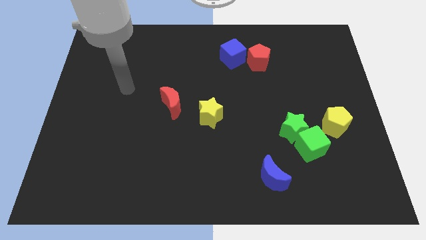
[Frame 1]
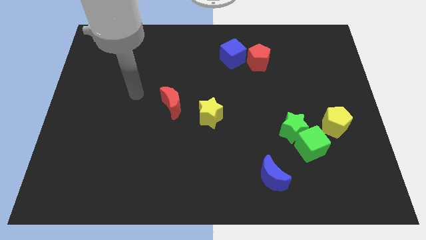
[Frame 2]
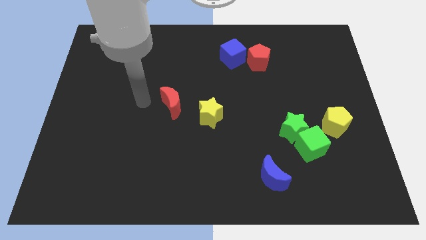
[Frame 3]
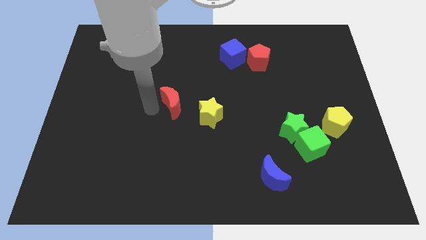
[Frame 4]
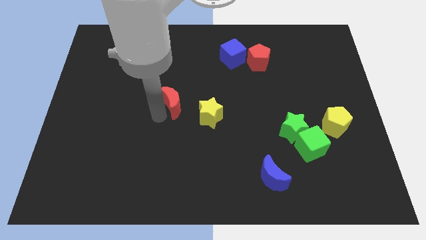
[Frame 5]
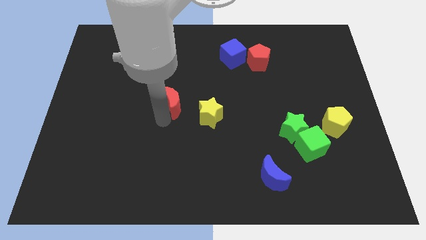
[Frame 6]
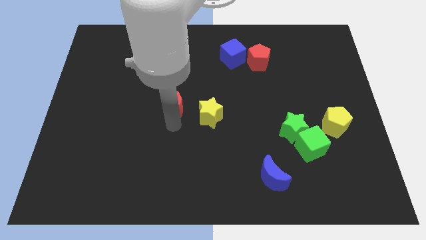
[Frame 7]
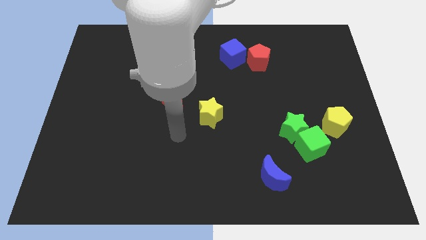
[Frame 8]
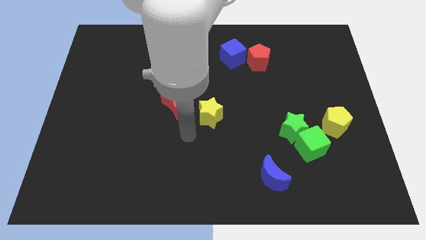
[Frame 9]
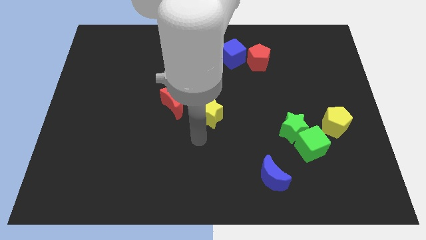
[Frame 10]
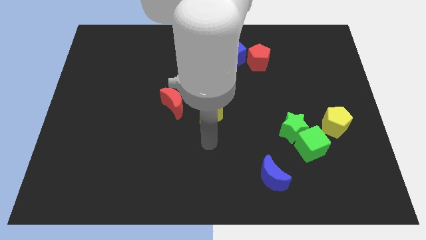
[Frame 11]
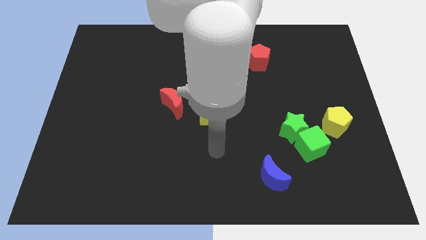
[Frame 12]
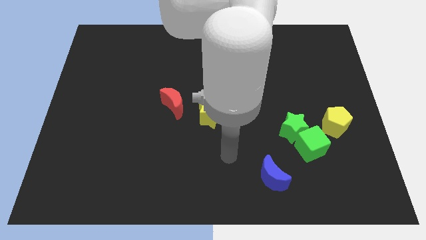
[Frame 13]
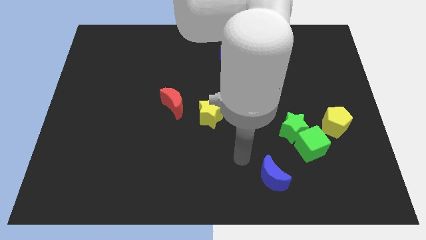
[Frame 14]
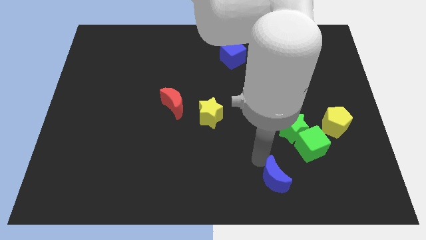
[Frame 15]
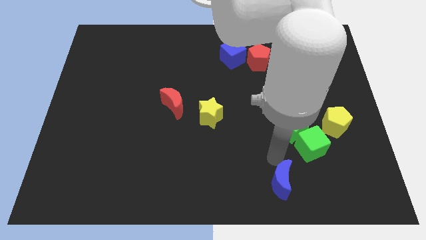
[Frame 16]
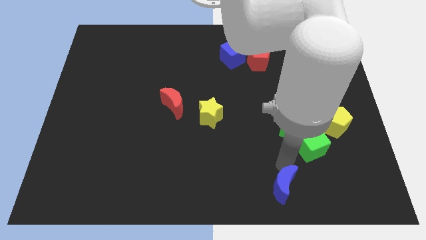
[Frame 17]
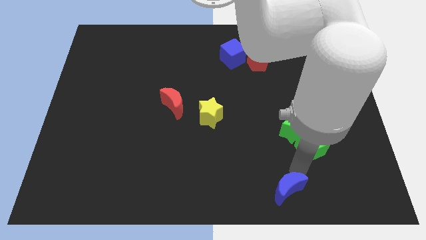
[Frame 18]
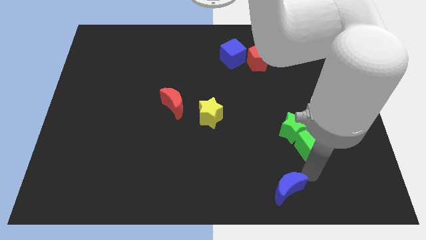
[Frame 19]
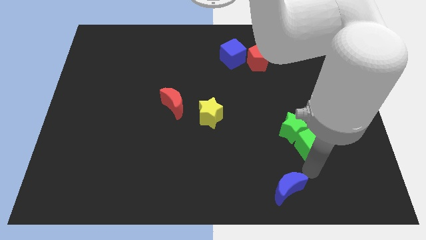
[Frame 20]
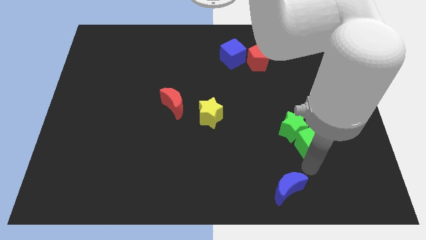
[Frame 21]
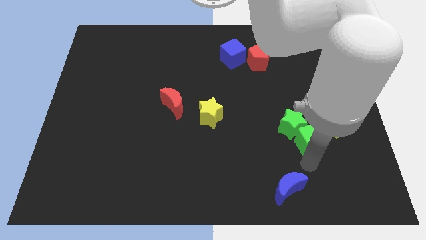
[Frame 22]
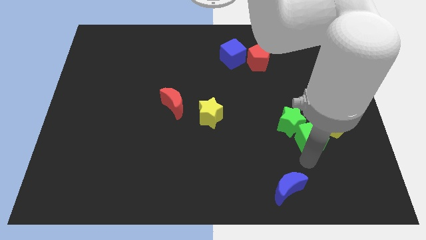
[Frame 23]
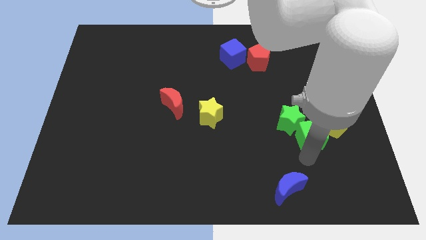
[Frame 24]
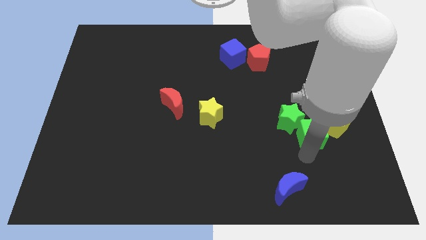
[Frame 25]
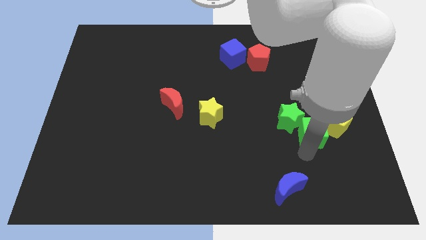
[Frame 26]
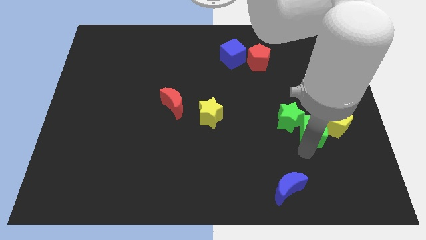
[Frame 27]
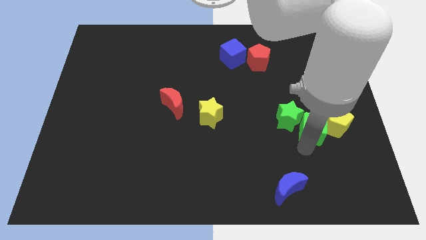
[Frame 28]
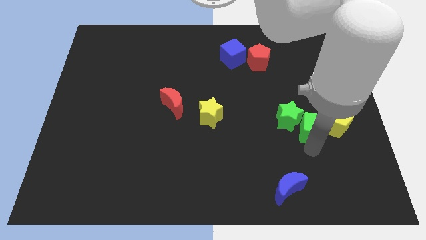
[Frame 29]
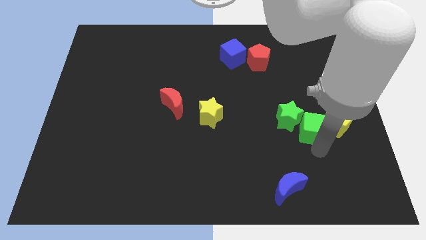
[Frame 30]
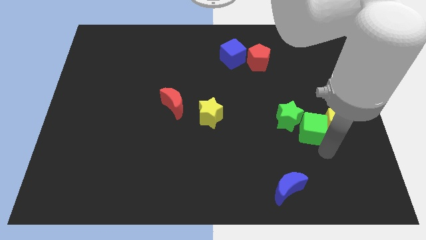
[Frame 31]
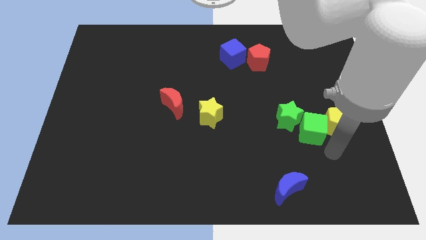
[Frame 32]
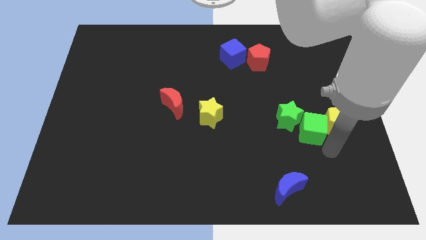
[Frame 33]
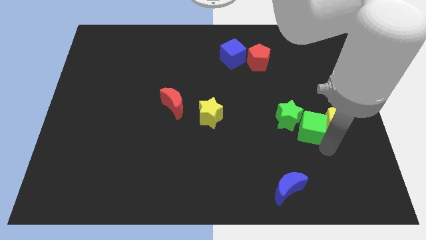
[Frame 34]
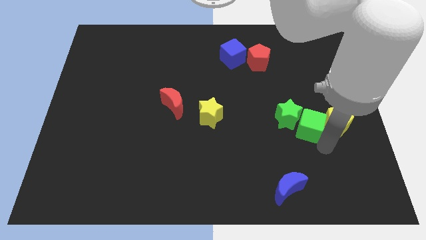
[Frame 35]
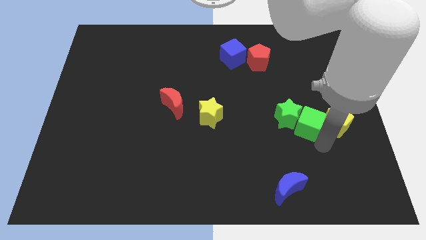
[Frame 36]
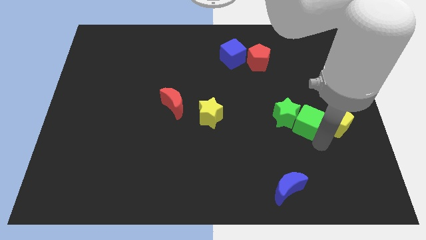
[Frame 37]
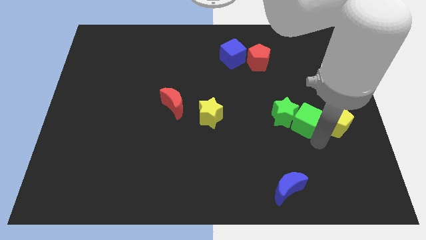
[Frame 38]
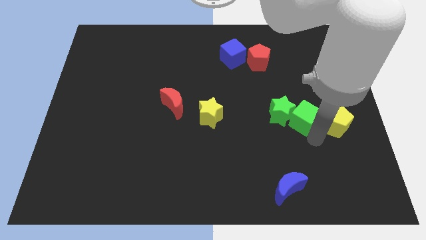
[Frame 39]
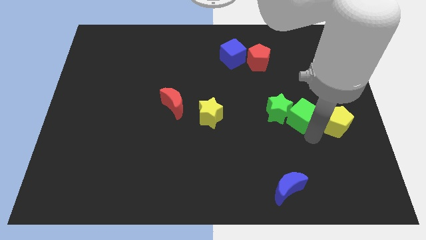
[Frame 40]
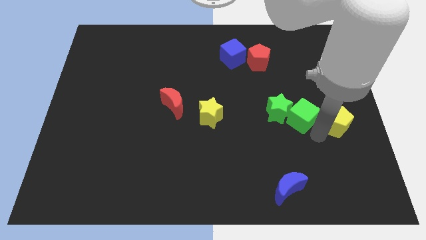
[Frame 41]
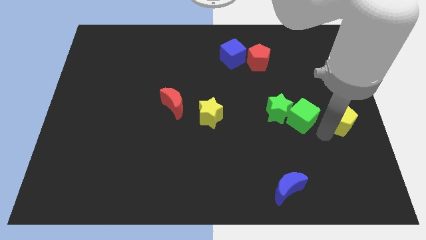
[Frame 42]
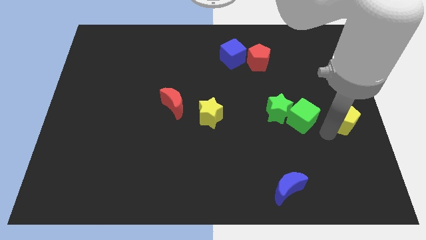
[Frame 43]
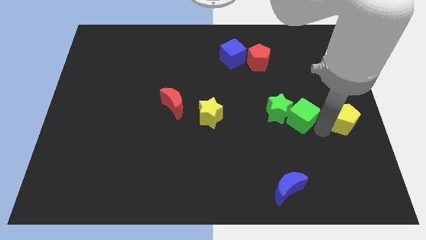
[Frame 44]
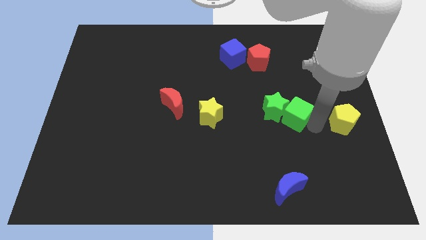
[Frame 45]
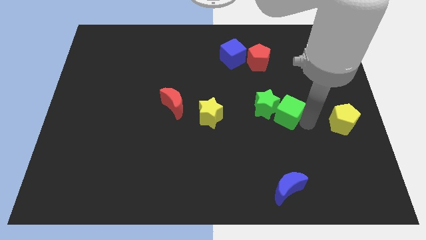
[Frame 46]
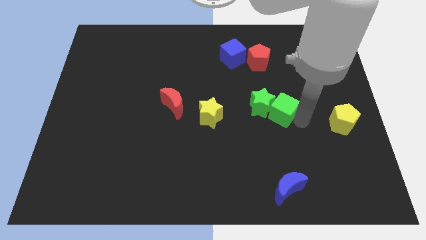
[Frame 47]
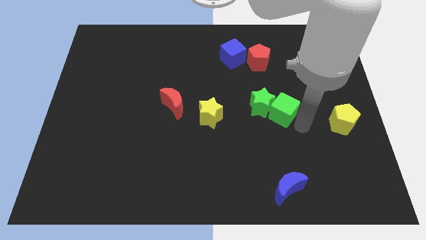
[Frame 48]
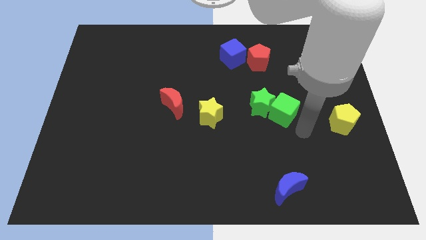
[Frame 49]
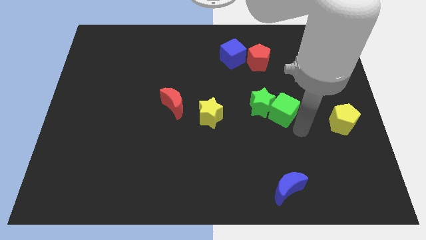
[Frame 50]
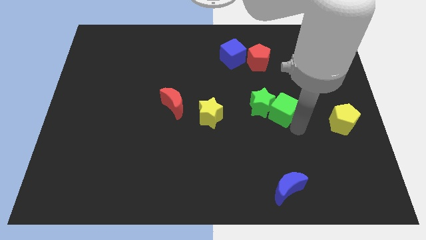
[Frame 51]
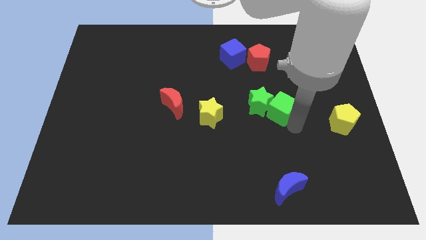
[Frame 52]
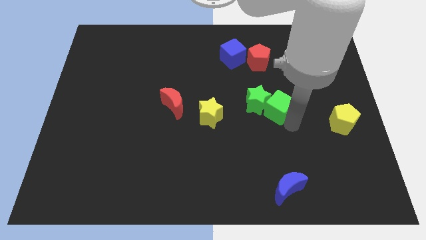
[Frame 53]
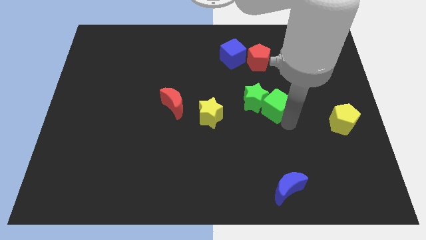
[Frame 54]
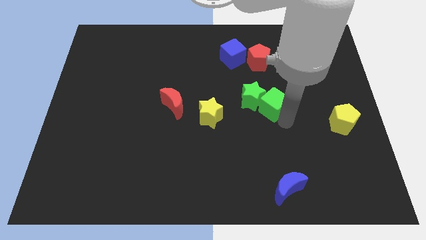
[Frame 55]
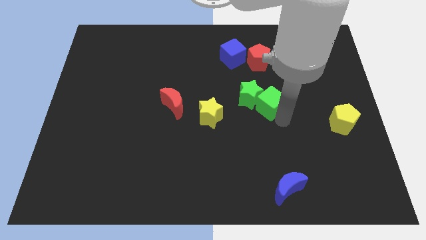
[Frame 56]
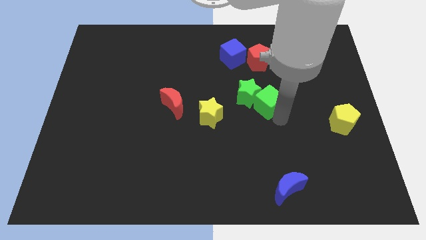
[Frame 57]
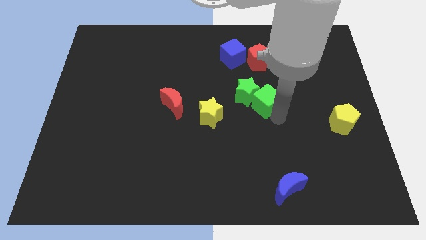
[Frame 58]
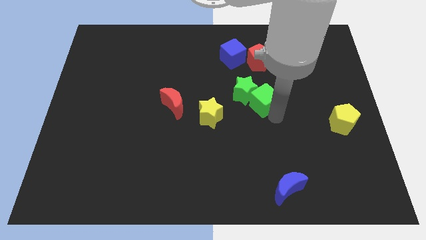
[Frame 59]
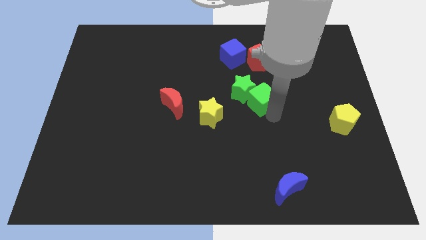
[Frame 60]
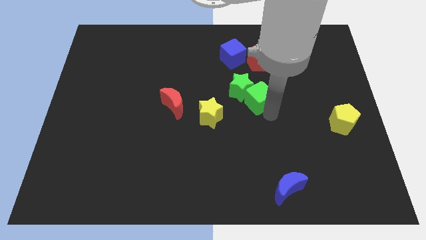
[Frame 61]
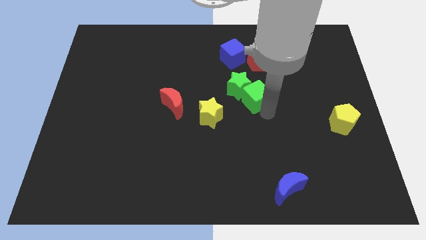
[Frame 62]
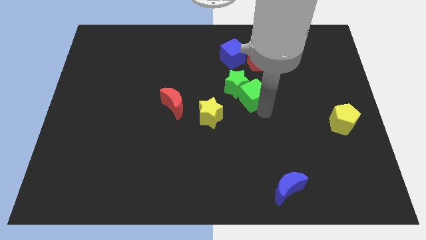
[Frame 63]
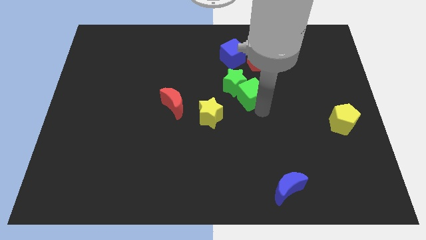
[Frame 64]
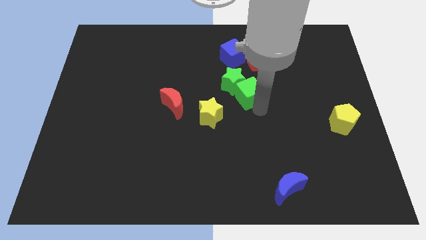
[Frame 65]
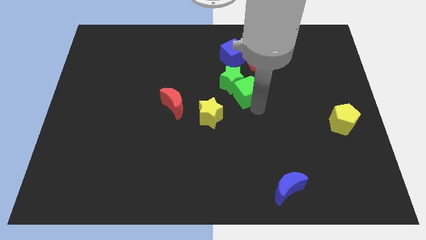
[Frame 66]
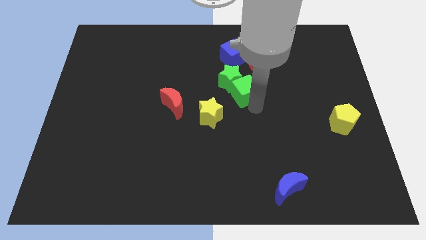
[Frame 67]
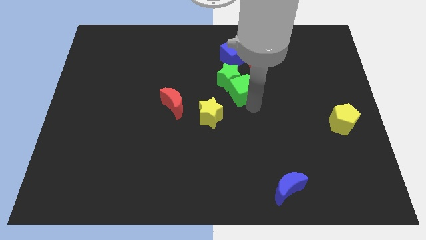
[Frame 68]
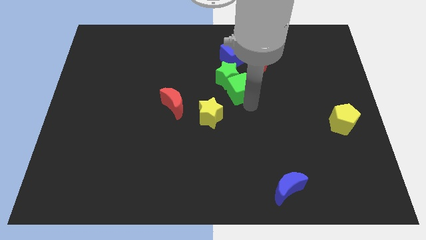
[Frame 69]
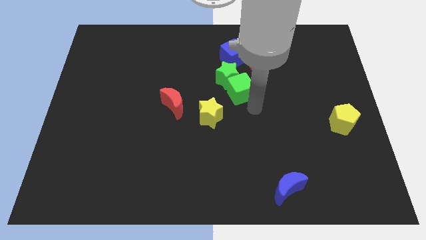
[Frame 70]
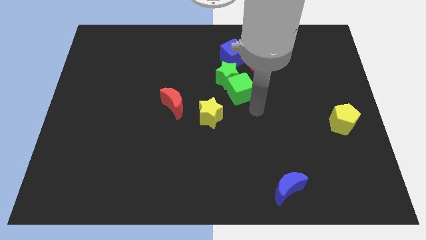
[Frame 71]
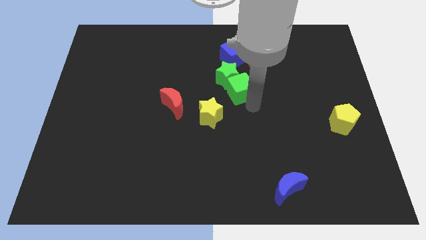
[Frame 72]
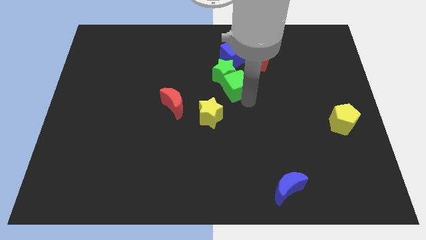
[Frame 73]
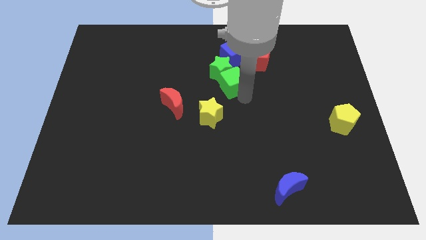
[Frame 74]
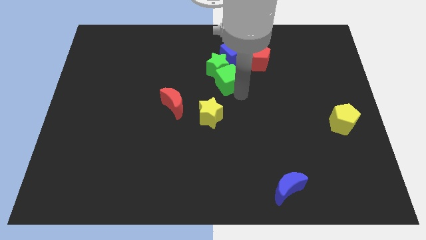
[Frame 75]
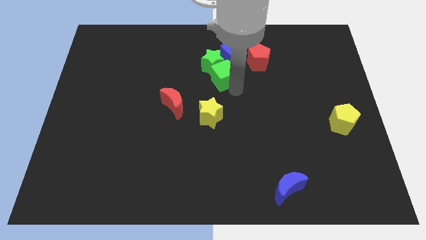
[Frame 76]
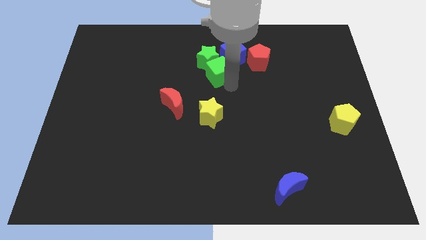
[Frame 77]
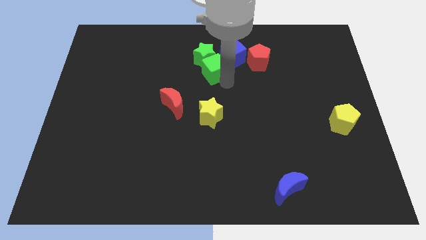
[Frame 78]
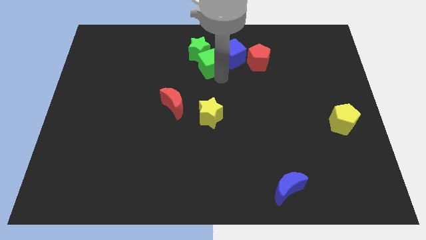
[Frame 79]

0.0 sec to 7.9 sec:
move the green cube to the left side of the blue cube
